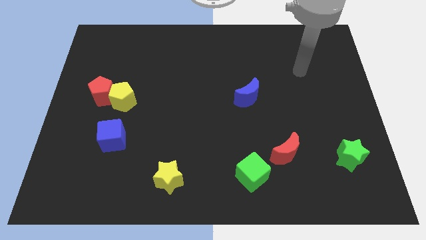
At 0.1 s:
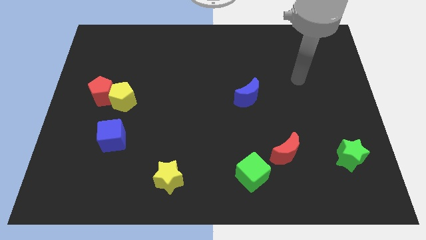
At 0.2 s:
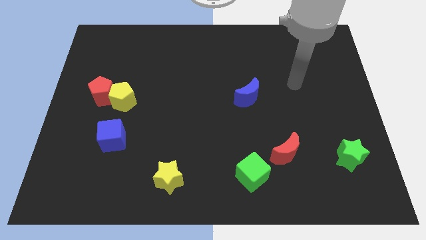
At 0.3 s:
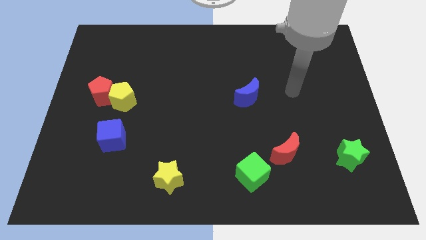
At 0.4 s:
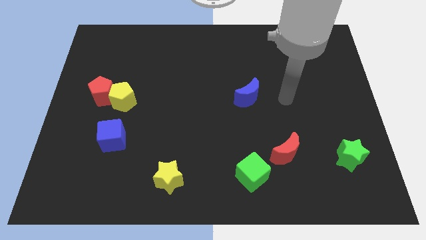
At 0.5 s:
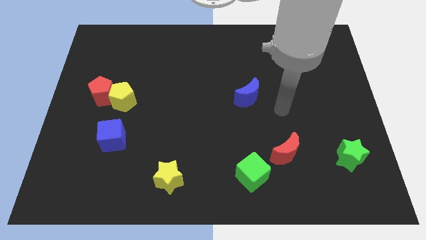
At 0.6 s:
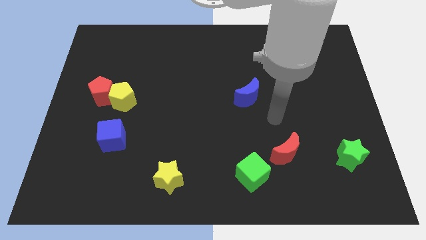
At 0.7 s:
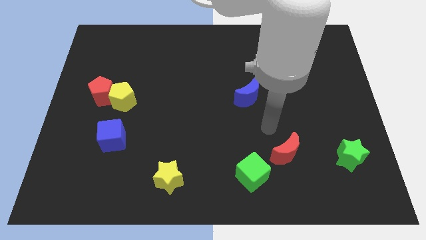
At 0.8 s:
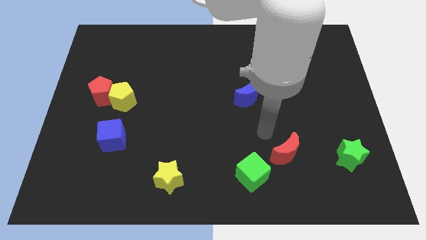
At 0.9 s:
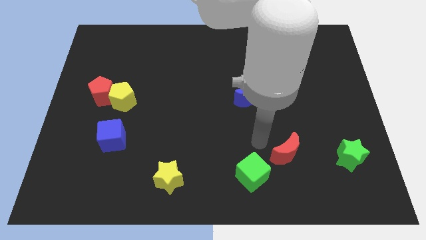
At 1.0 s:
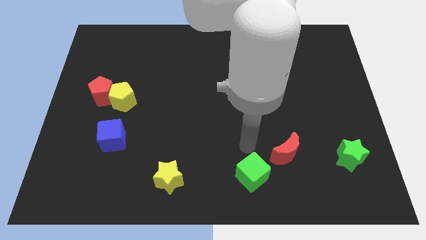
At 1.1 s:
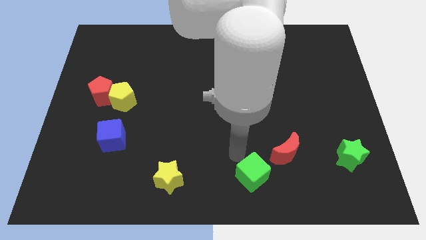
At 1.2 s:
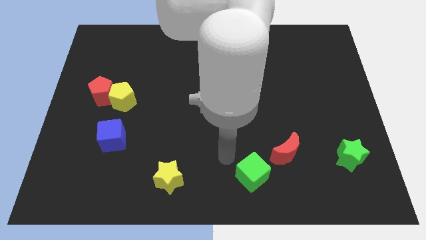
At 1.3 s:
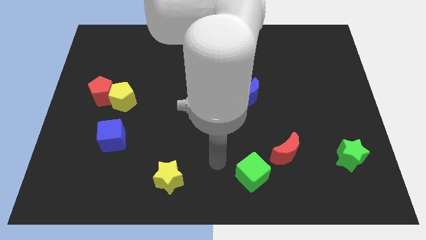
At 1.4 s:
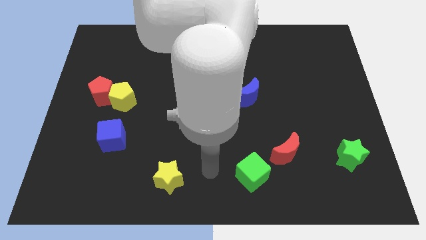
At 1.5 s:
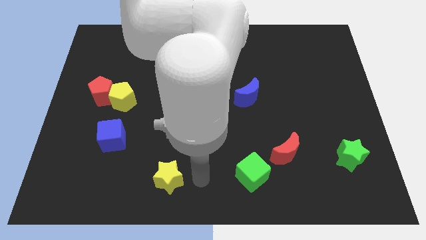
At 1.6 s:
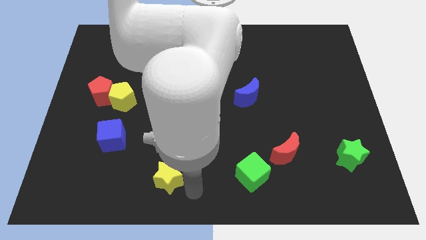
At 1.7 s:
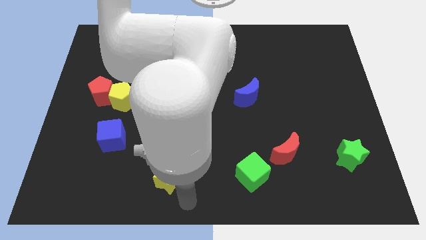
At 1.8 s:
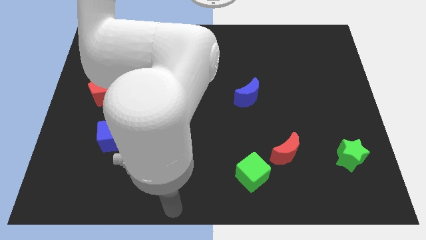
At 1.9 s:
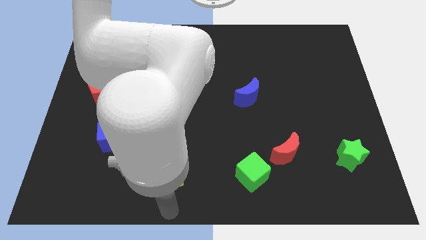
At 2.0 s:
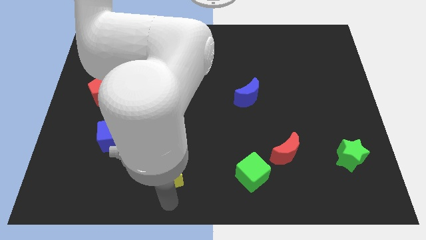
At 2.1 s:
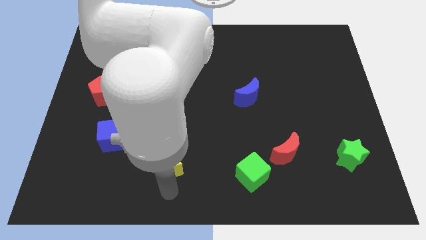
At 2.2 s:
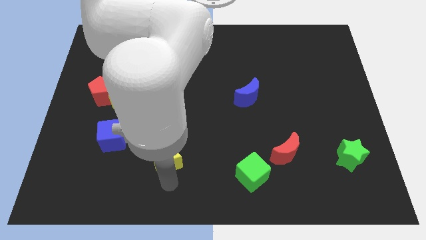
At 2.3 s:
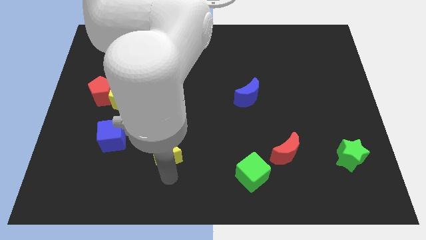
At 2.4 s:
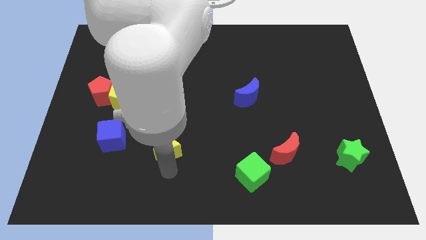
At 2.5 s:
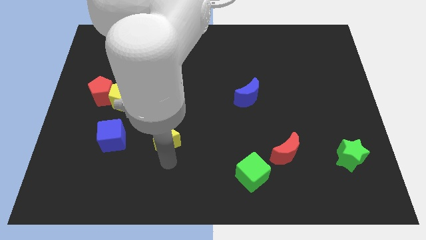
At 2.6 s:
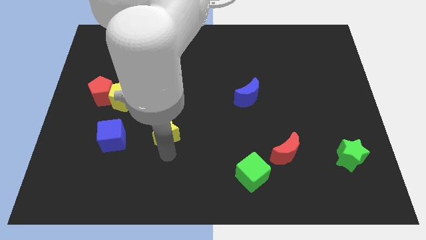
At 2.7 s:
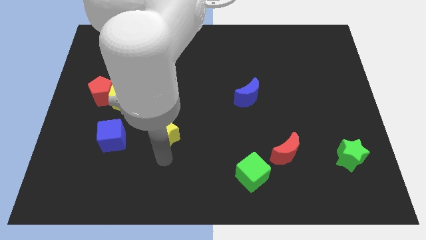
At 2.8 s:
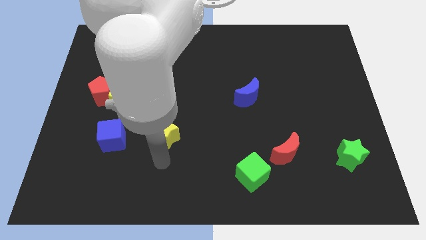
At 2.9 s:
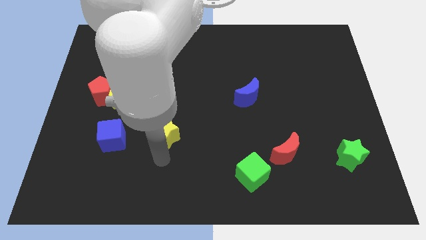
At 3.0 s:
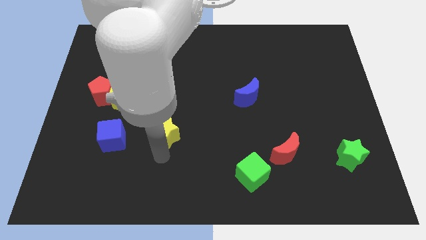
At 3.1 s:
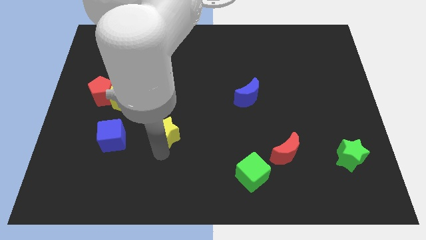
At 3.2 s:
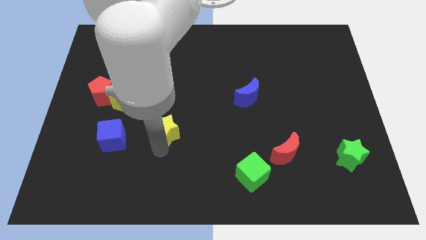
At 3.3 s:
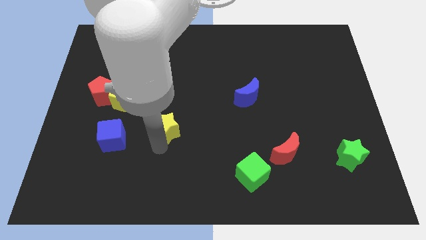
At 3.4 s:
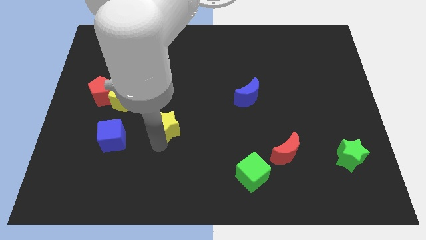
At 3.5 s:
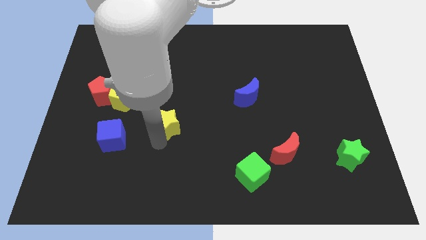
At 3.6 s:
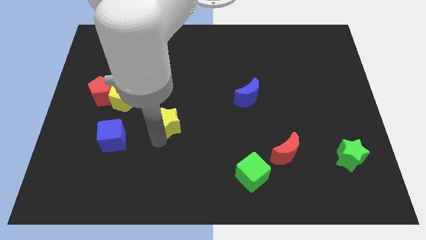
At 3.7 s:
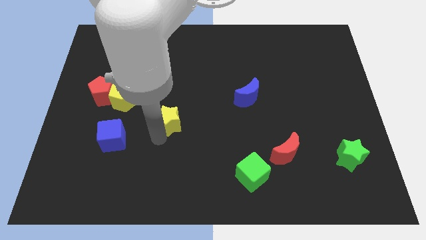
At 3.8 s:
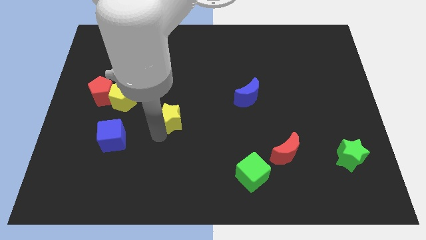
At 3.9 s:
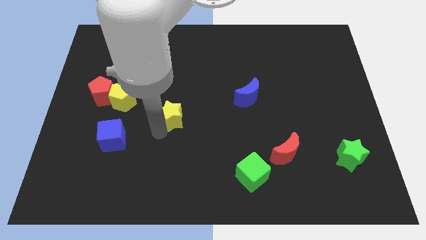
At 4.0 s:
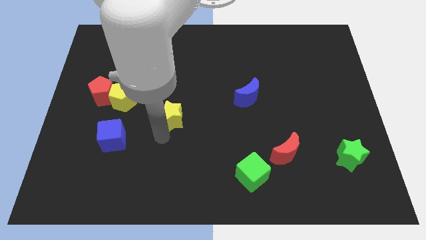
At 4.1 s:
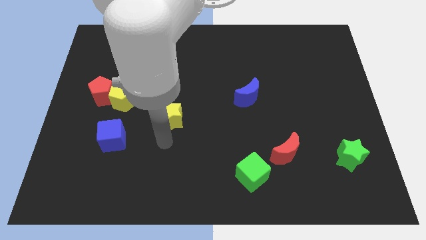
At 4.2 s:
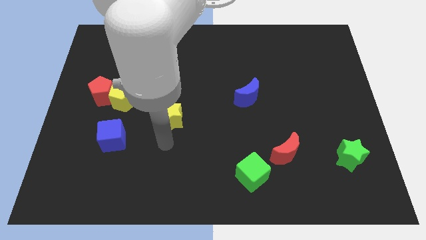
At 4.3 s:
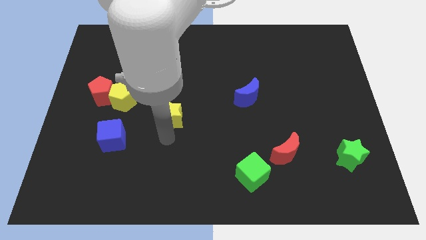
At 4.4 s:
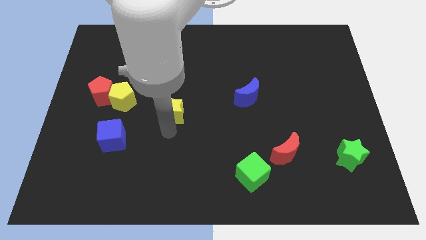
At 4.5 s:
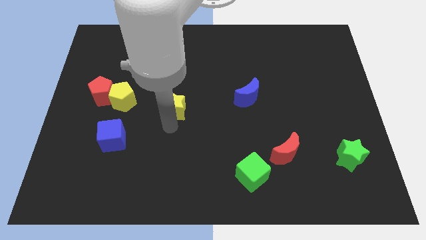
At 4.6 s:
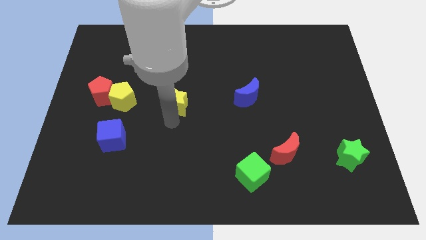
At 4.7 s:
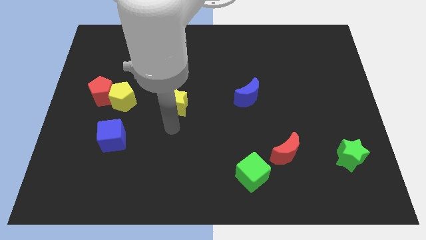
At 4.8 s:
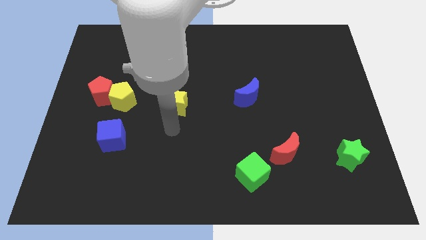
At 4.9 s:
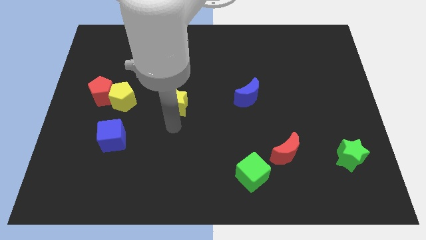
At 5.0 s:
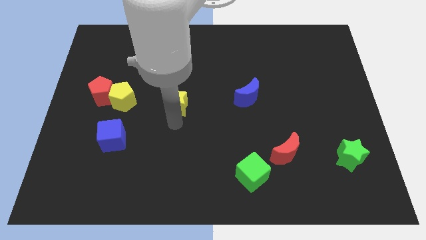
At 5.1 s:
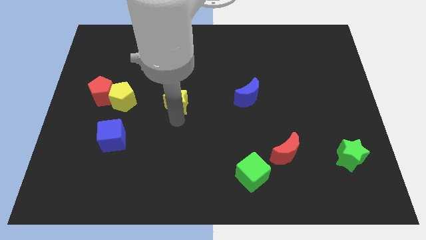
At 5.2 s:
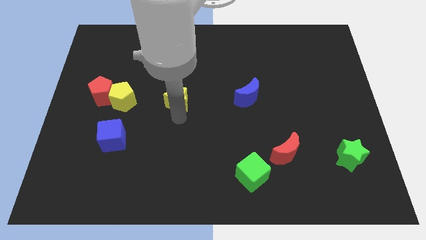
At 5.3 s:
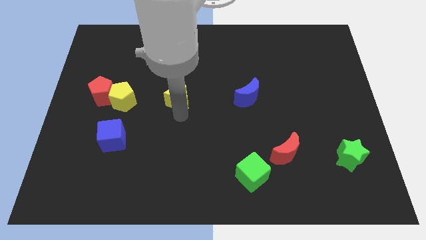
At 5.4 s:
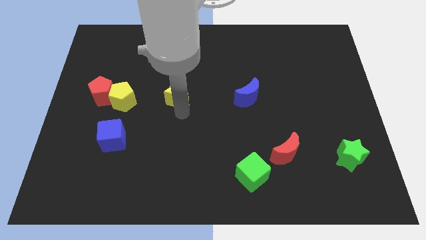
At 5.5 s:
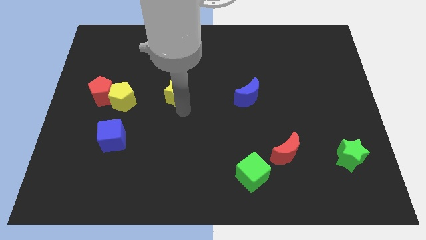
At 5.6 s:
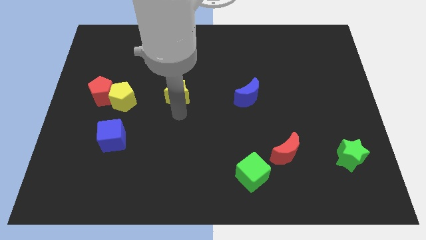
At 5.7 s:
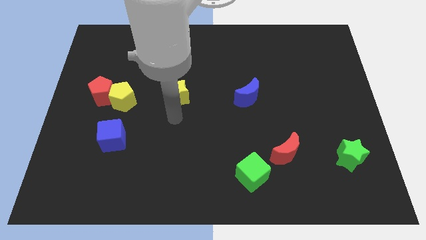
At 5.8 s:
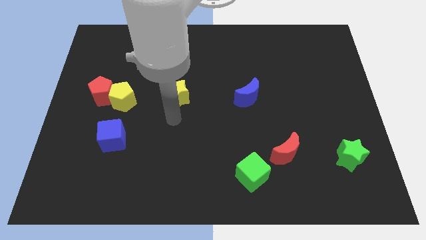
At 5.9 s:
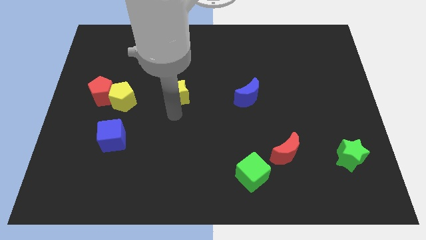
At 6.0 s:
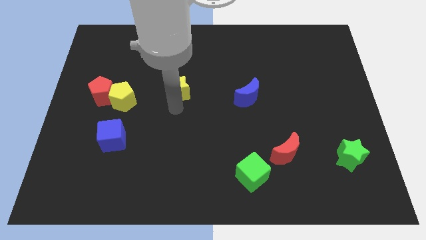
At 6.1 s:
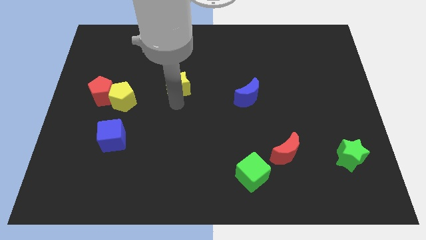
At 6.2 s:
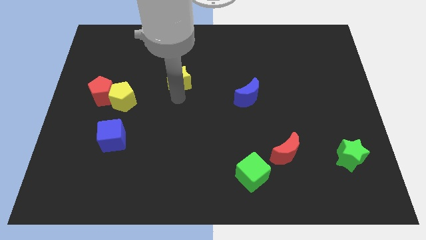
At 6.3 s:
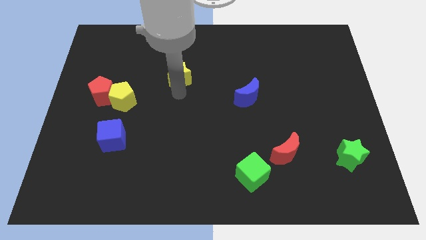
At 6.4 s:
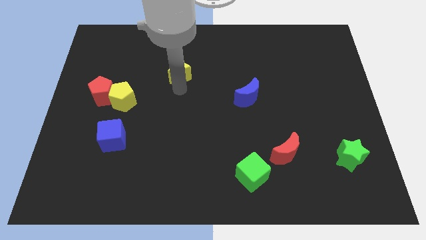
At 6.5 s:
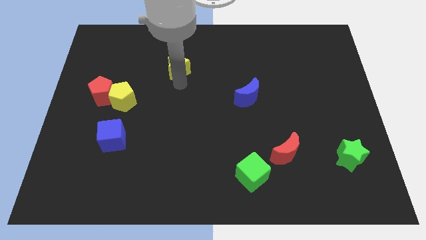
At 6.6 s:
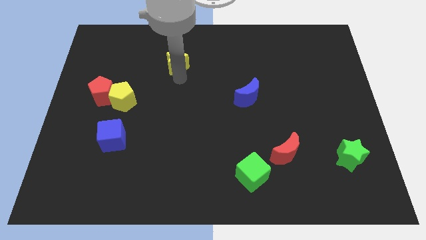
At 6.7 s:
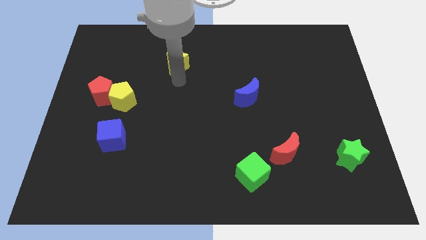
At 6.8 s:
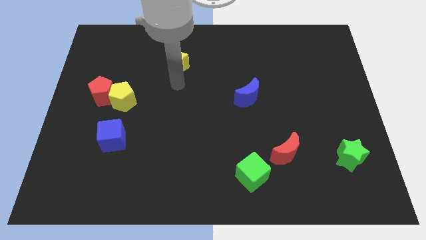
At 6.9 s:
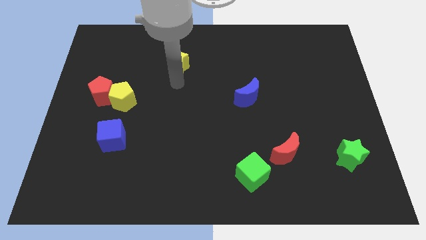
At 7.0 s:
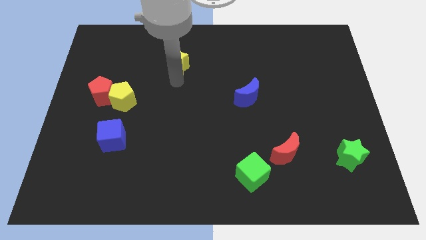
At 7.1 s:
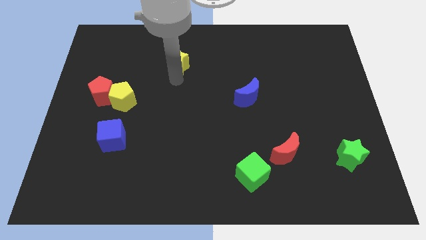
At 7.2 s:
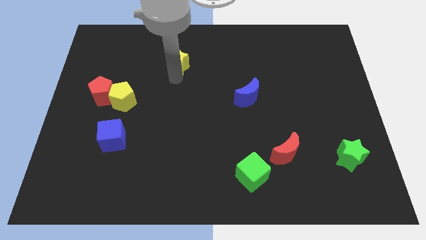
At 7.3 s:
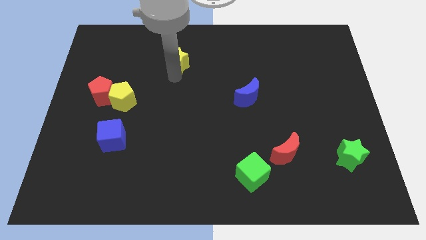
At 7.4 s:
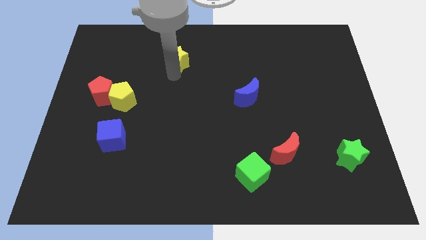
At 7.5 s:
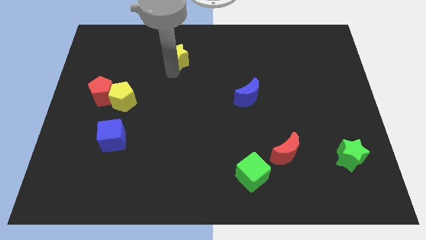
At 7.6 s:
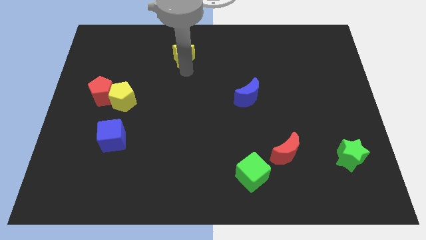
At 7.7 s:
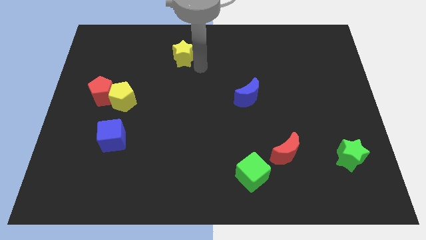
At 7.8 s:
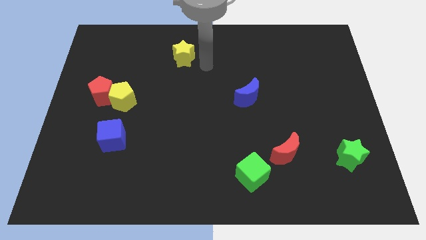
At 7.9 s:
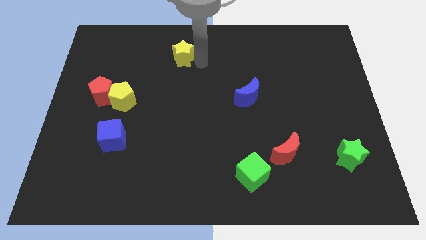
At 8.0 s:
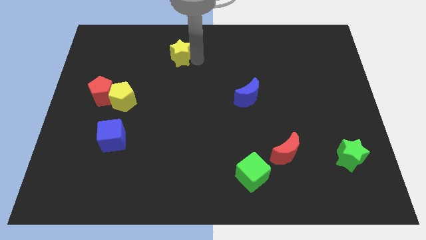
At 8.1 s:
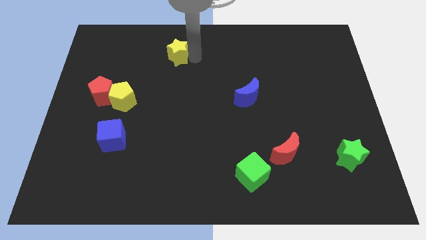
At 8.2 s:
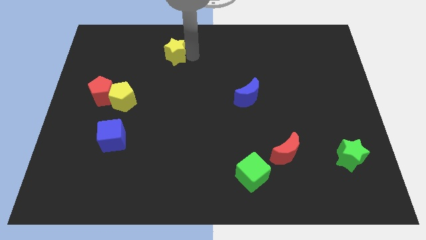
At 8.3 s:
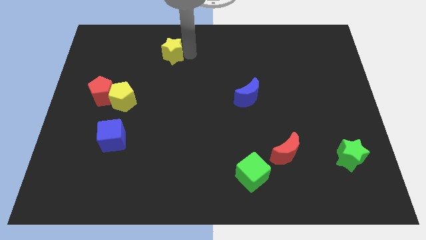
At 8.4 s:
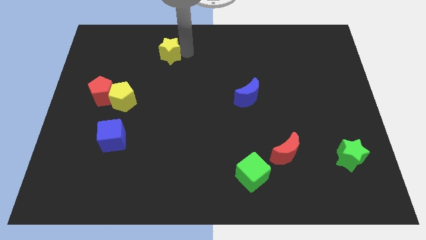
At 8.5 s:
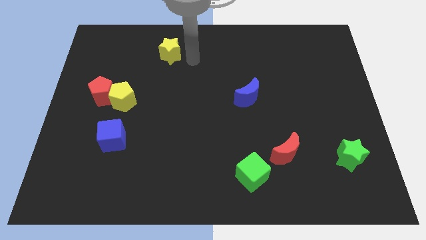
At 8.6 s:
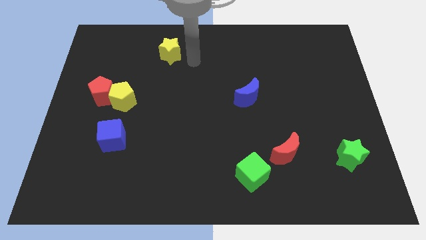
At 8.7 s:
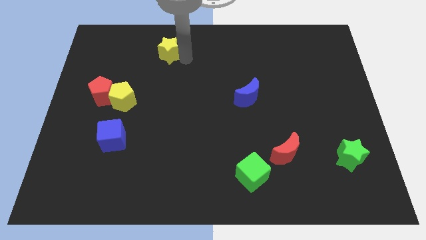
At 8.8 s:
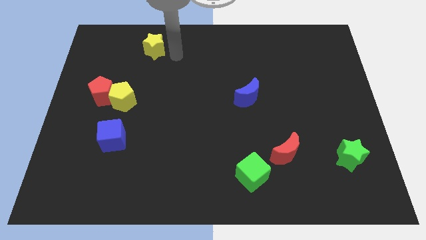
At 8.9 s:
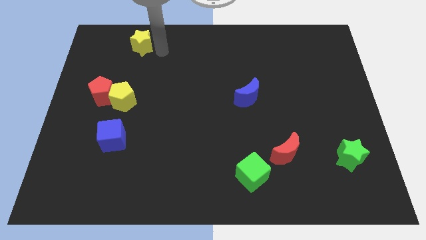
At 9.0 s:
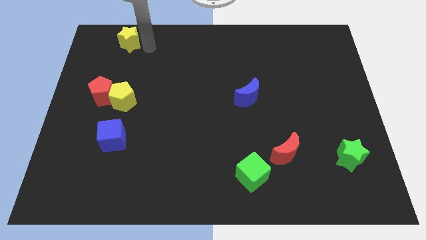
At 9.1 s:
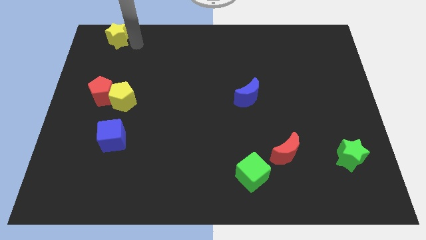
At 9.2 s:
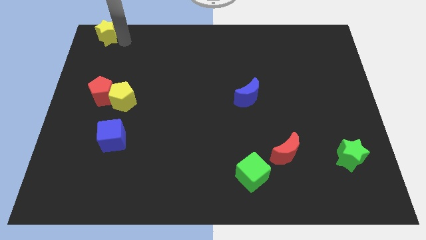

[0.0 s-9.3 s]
move the yellow star to the top left of the board
